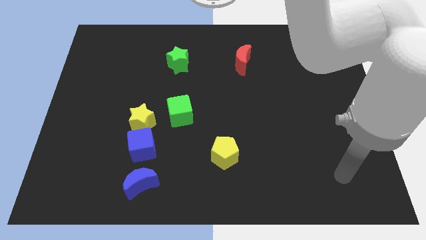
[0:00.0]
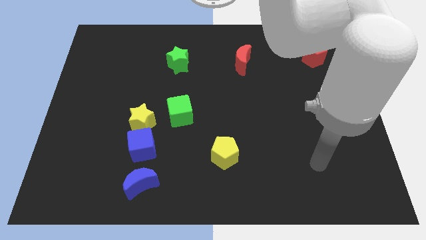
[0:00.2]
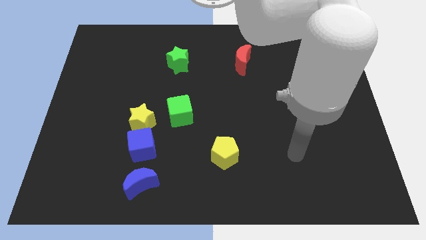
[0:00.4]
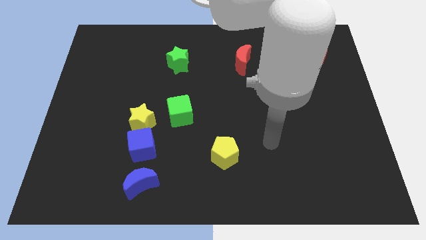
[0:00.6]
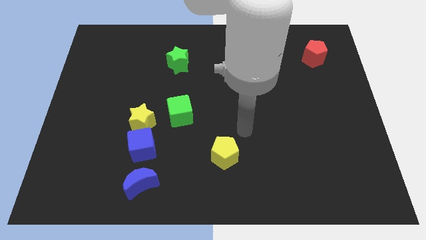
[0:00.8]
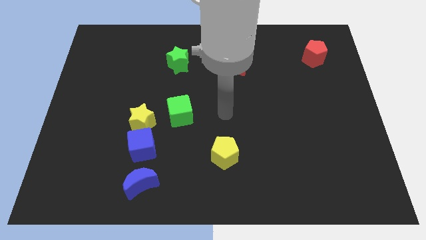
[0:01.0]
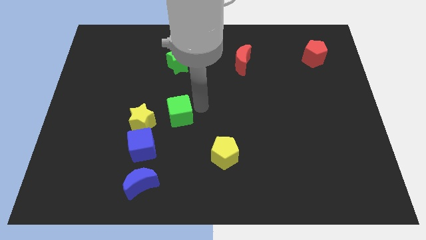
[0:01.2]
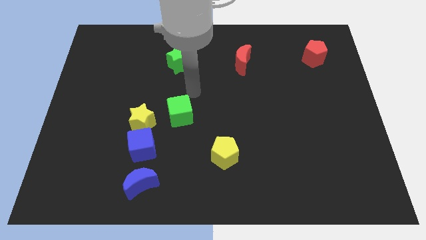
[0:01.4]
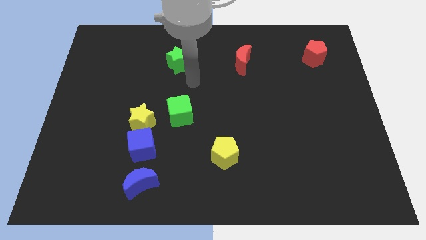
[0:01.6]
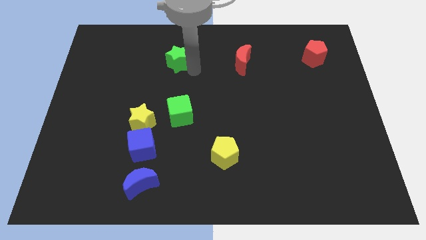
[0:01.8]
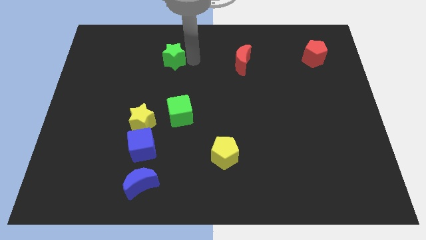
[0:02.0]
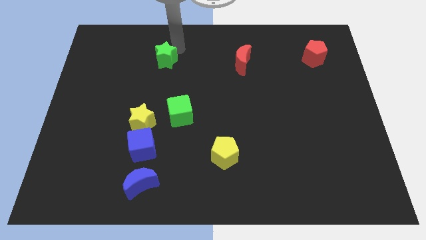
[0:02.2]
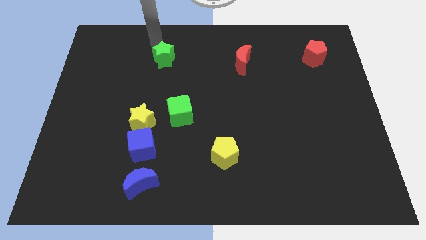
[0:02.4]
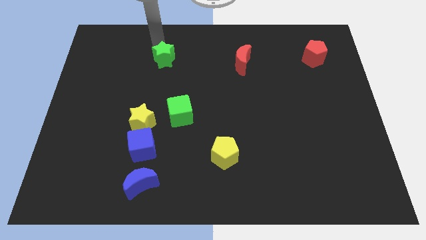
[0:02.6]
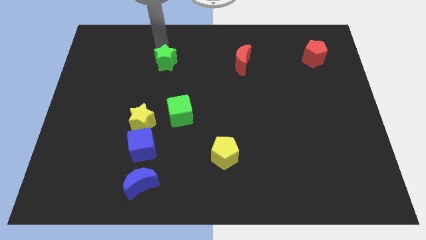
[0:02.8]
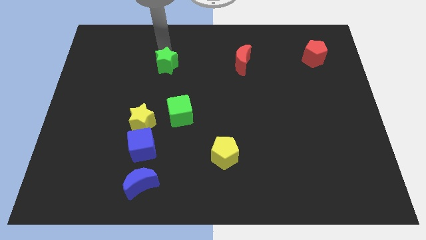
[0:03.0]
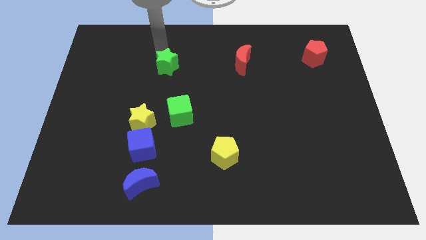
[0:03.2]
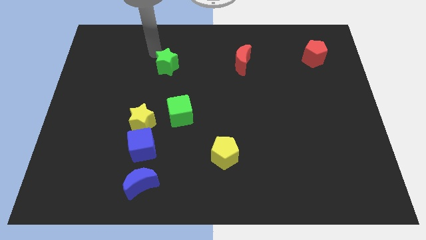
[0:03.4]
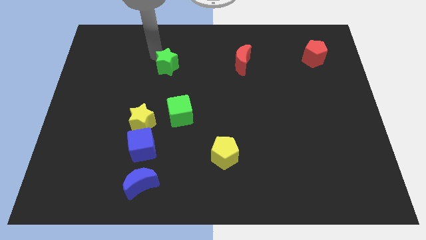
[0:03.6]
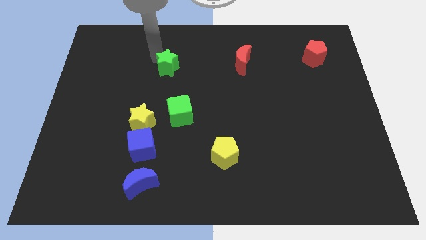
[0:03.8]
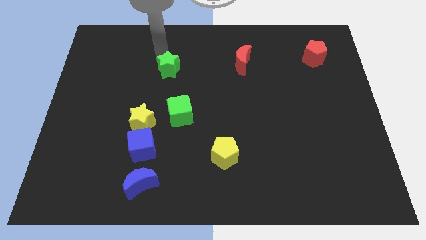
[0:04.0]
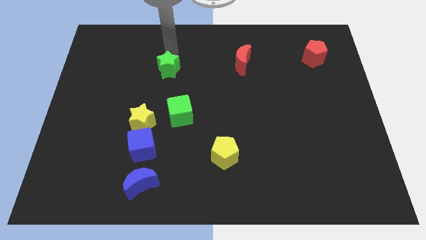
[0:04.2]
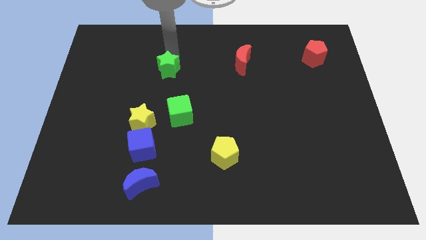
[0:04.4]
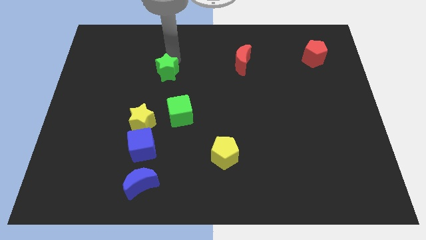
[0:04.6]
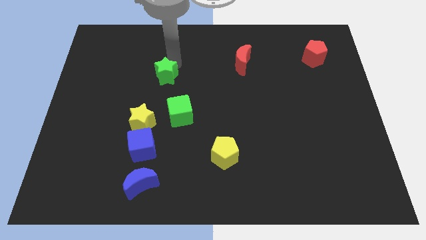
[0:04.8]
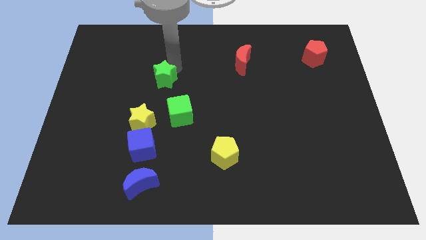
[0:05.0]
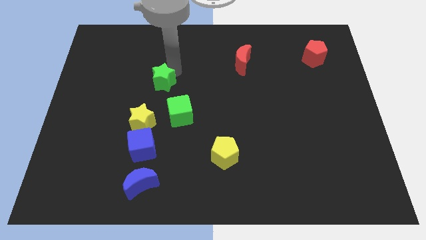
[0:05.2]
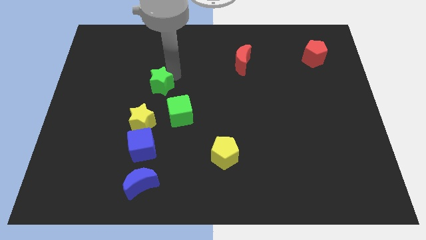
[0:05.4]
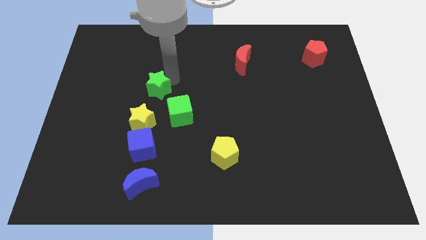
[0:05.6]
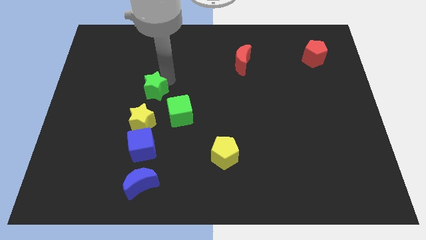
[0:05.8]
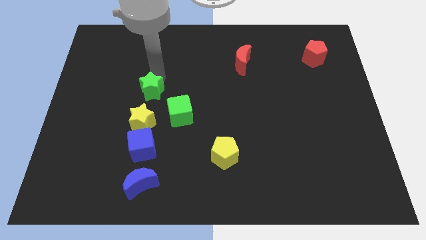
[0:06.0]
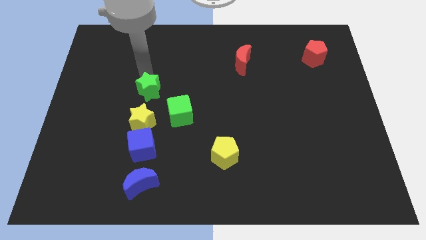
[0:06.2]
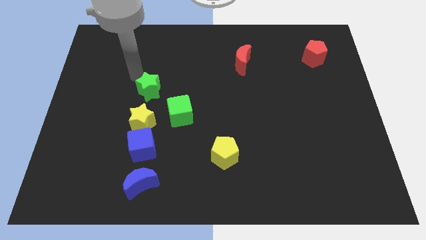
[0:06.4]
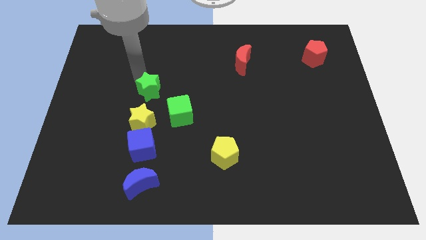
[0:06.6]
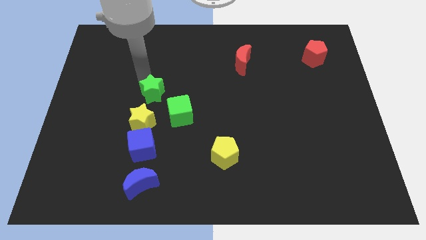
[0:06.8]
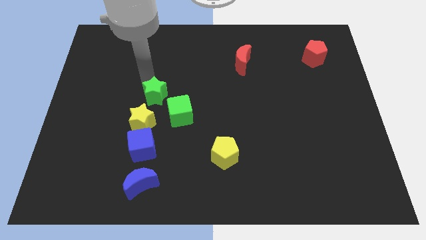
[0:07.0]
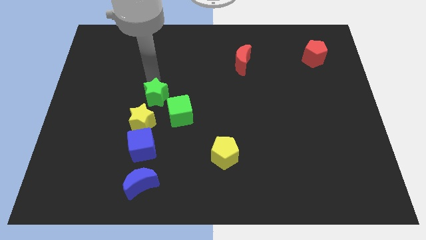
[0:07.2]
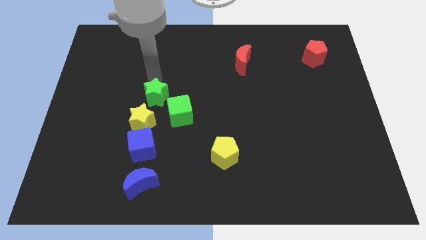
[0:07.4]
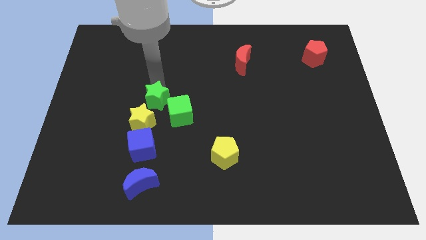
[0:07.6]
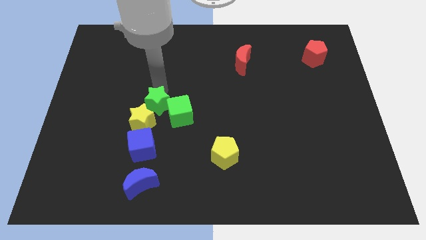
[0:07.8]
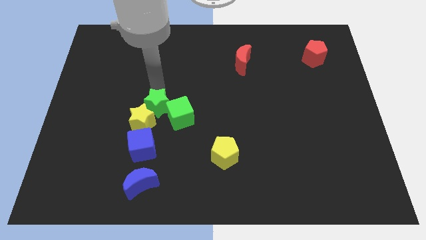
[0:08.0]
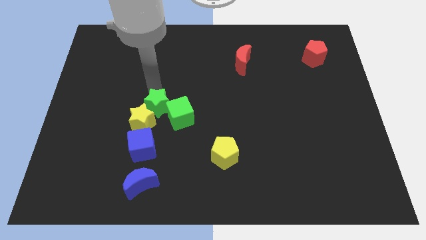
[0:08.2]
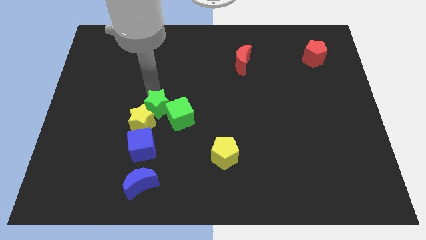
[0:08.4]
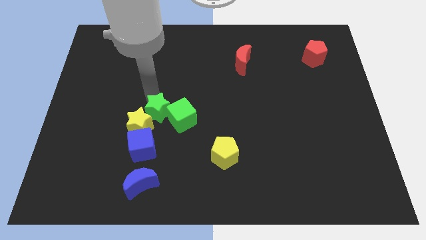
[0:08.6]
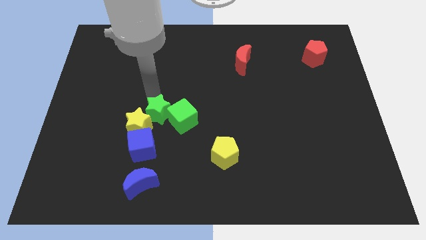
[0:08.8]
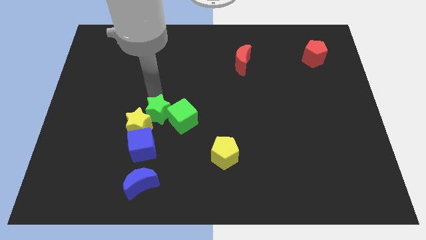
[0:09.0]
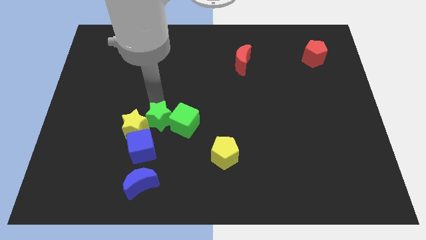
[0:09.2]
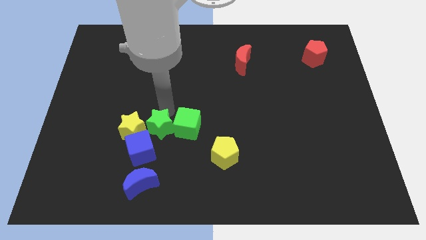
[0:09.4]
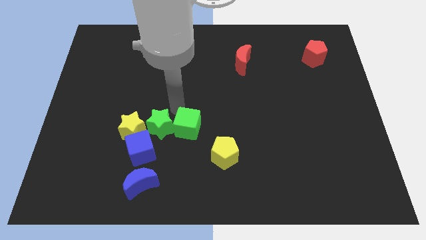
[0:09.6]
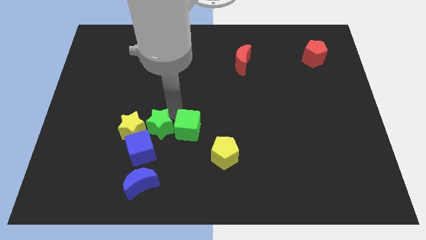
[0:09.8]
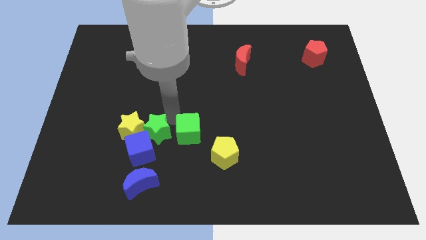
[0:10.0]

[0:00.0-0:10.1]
put the green star close to the blue cube

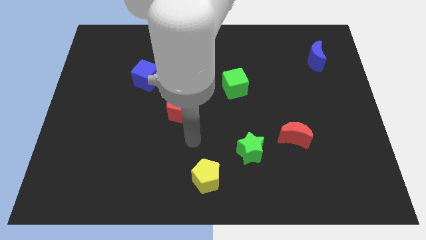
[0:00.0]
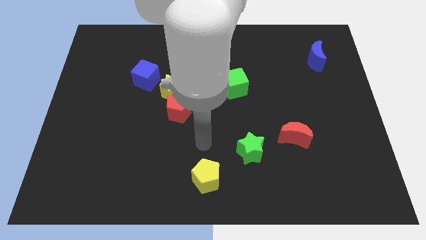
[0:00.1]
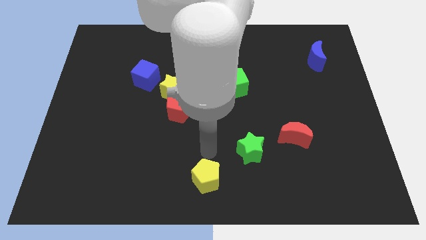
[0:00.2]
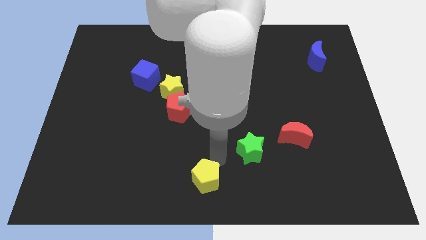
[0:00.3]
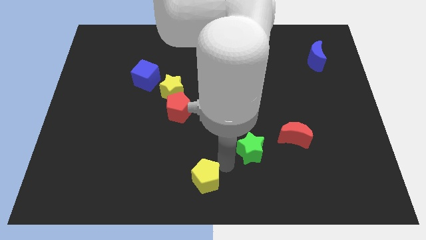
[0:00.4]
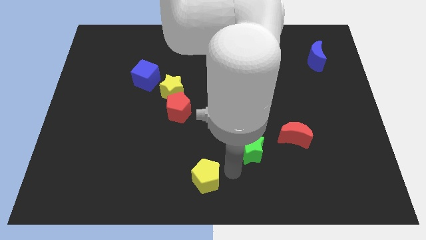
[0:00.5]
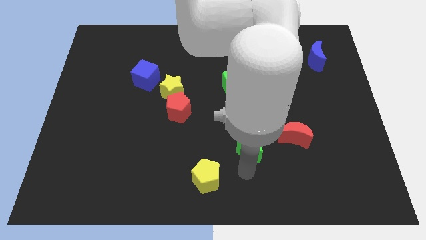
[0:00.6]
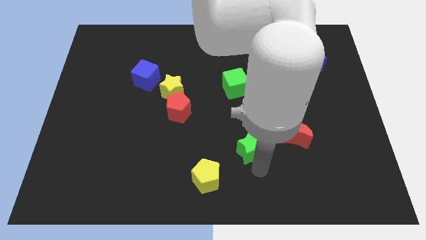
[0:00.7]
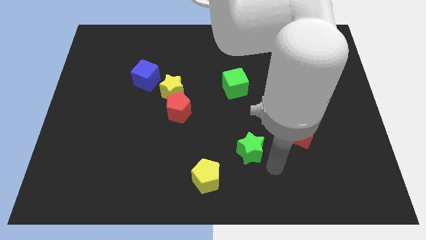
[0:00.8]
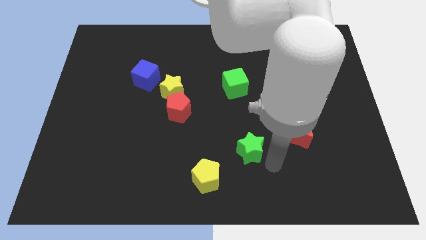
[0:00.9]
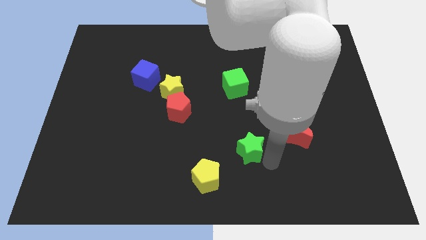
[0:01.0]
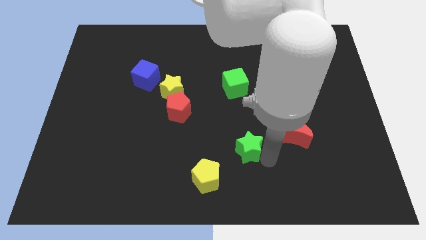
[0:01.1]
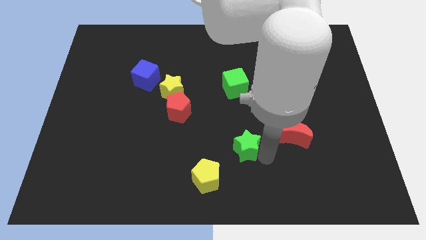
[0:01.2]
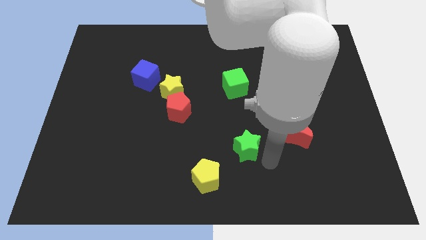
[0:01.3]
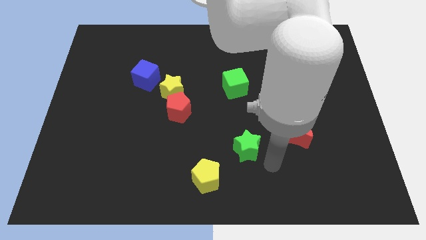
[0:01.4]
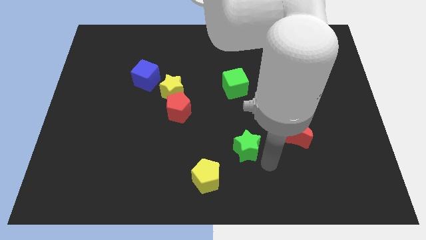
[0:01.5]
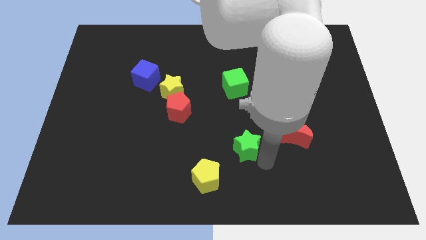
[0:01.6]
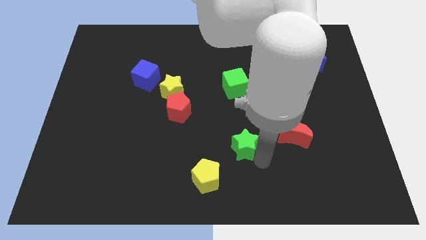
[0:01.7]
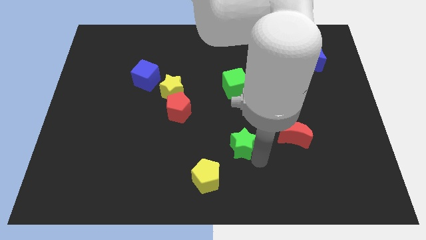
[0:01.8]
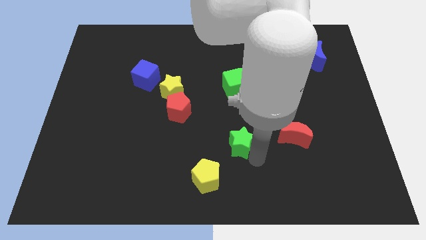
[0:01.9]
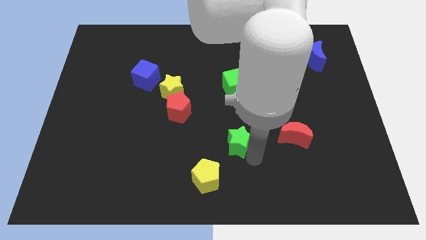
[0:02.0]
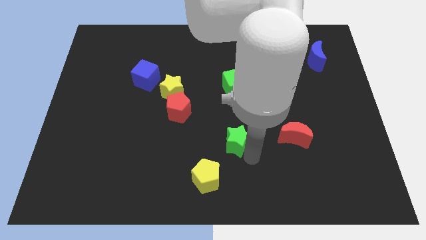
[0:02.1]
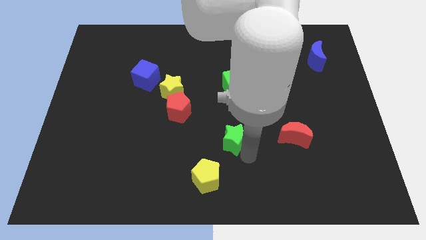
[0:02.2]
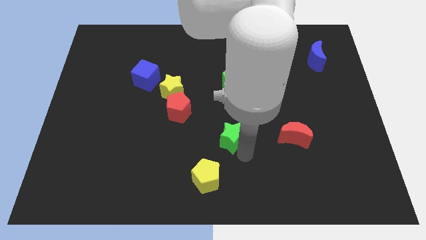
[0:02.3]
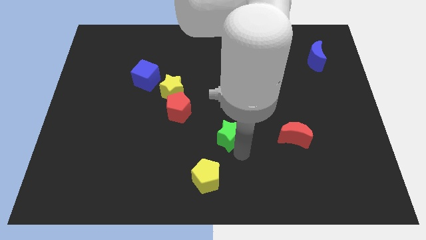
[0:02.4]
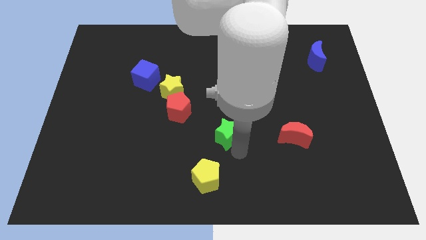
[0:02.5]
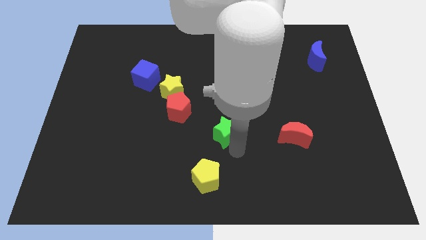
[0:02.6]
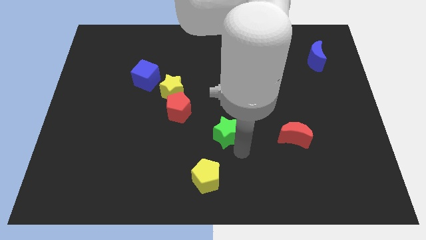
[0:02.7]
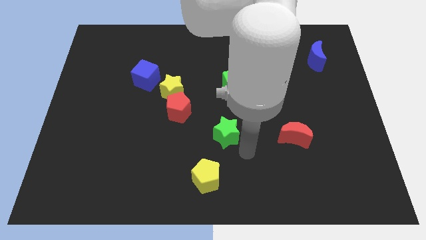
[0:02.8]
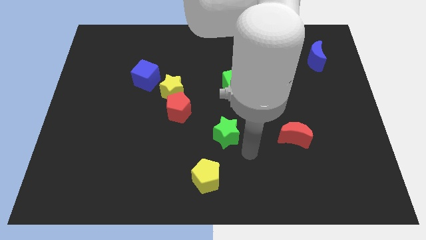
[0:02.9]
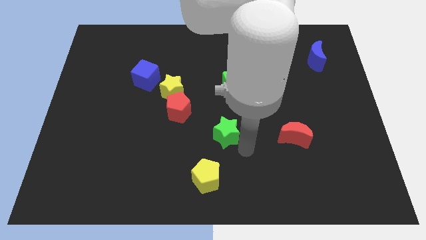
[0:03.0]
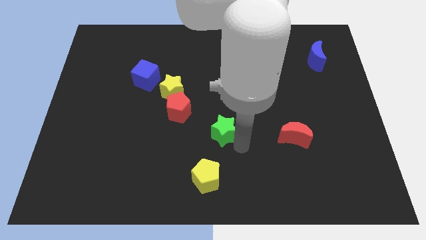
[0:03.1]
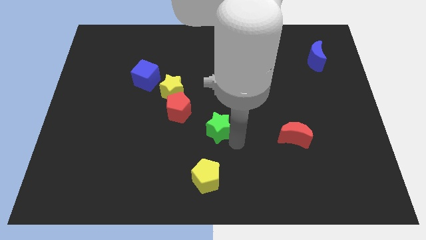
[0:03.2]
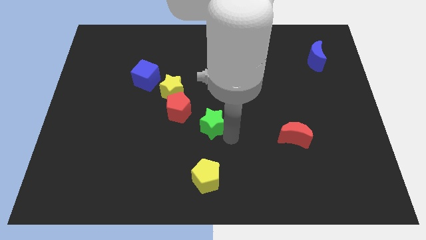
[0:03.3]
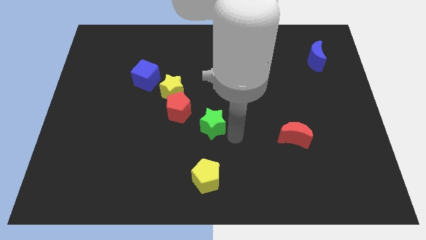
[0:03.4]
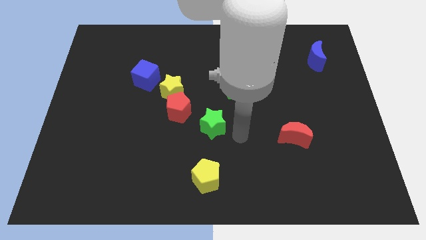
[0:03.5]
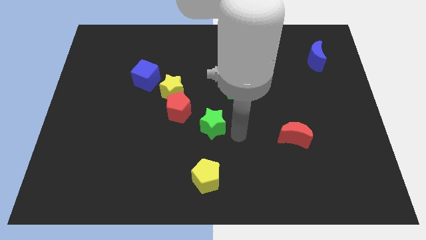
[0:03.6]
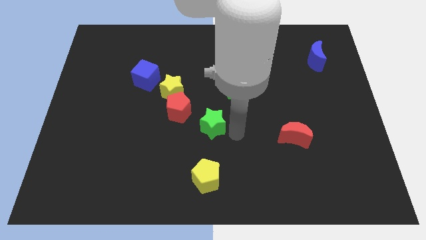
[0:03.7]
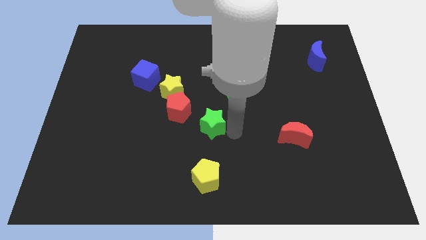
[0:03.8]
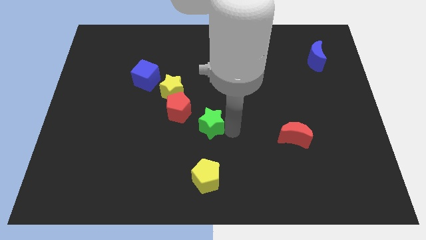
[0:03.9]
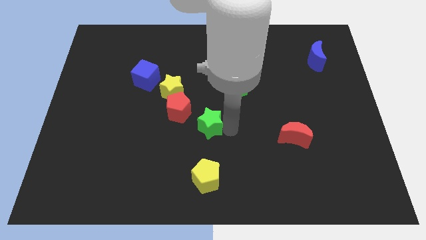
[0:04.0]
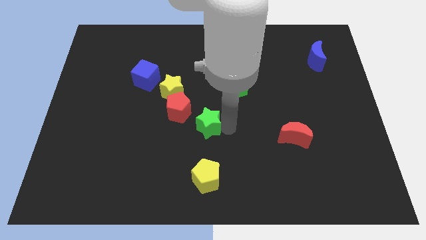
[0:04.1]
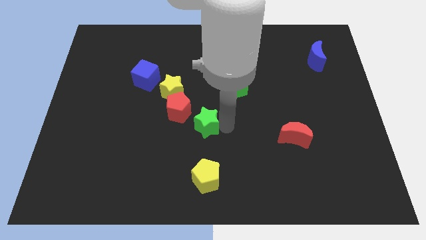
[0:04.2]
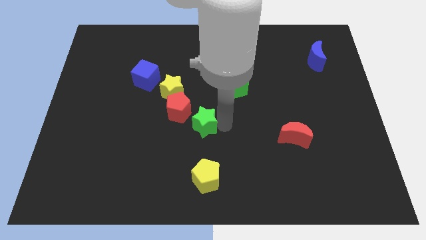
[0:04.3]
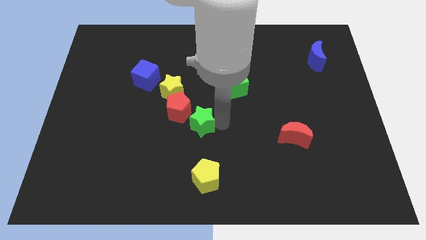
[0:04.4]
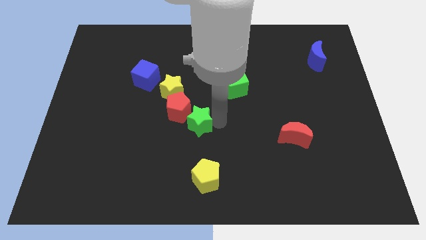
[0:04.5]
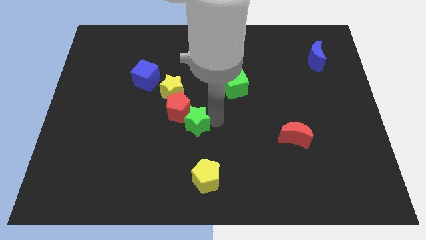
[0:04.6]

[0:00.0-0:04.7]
push the green star to the red pentagon
